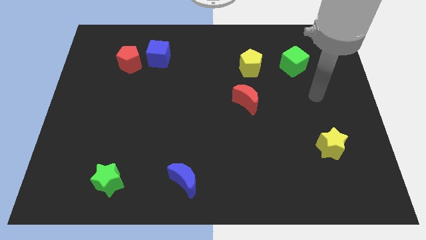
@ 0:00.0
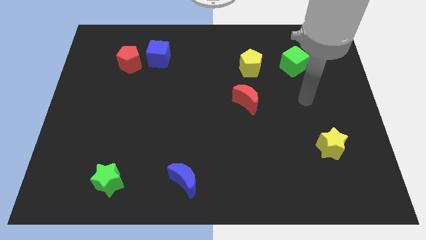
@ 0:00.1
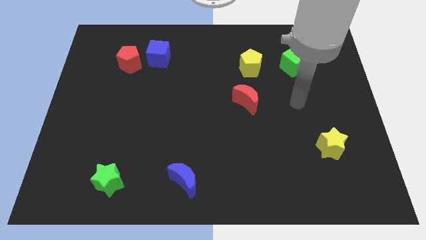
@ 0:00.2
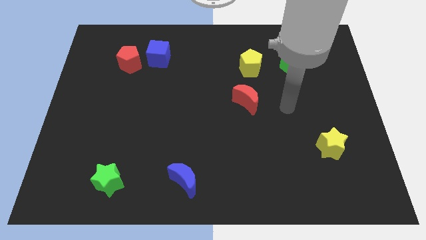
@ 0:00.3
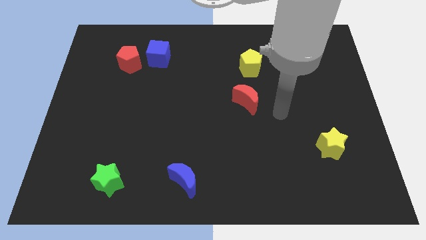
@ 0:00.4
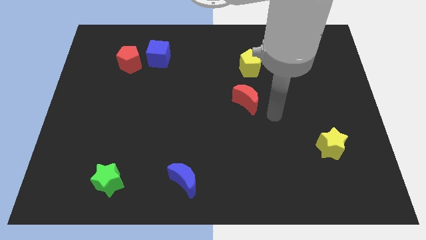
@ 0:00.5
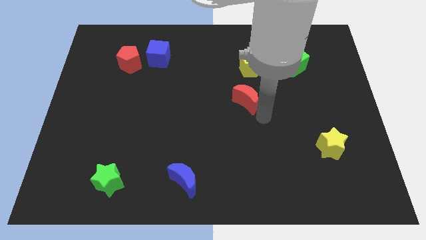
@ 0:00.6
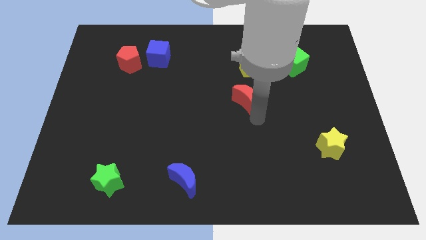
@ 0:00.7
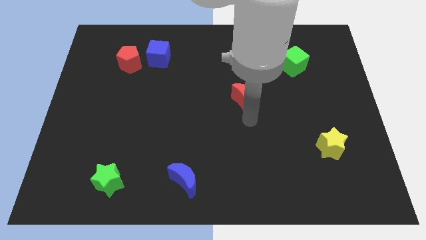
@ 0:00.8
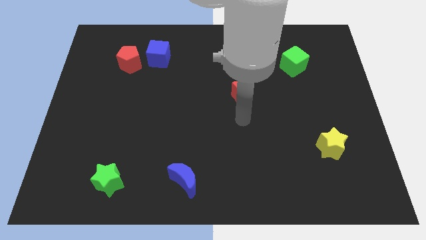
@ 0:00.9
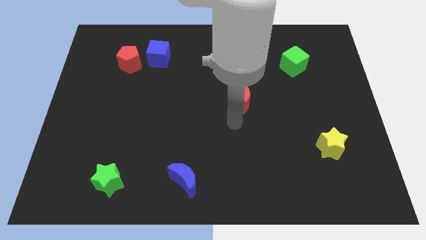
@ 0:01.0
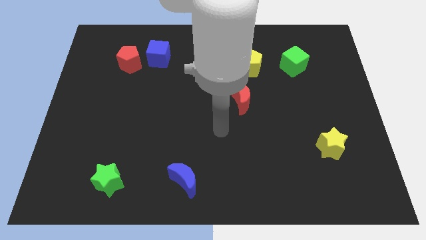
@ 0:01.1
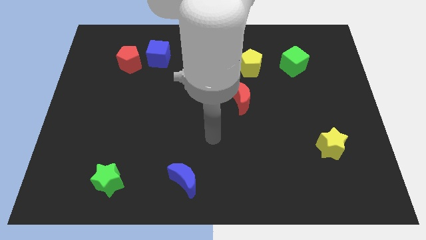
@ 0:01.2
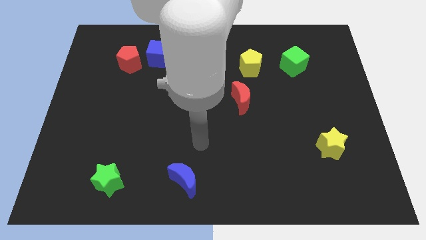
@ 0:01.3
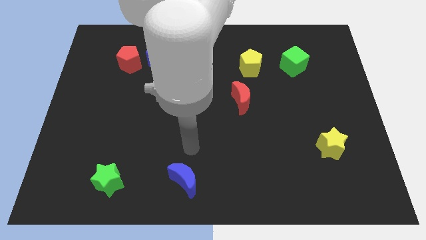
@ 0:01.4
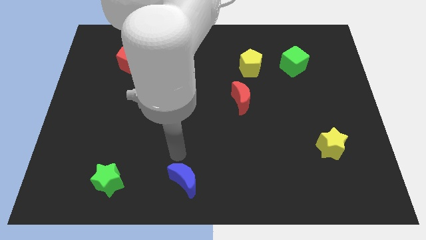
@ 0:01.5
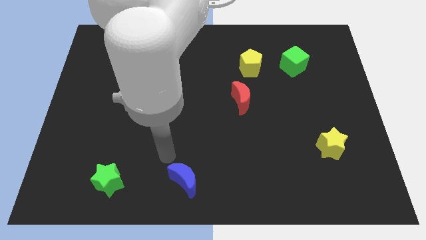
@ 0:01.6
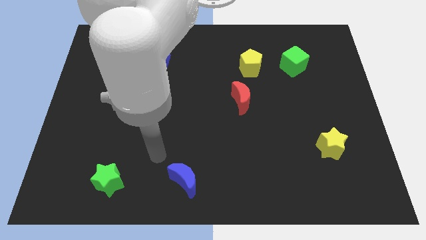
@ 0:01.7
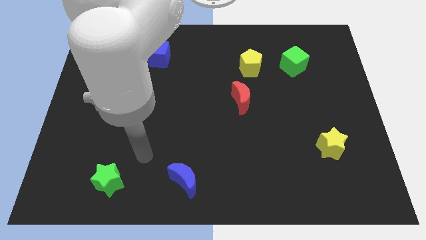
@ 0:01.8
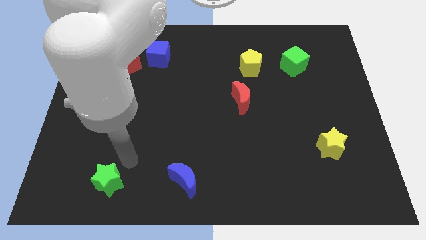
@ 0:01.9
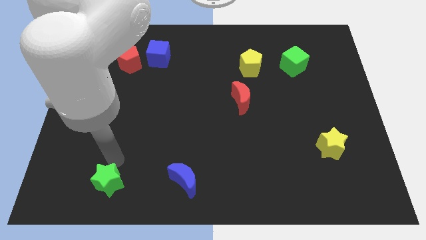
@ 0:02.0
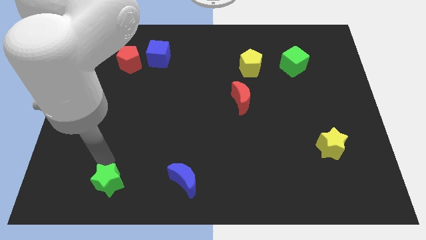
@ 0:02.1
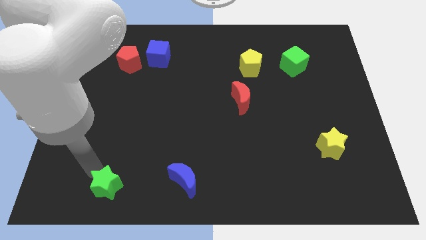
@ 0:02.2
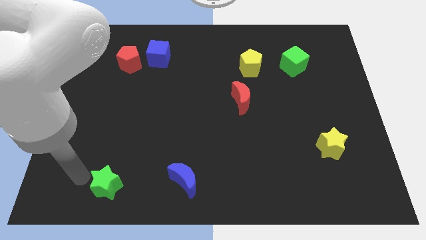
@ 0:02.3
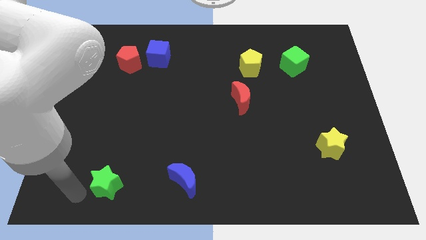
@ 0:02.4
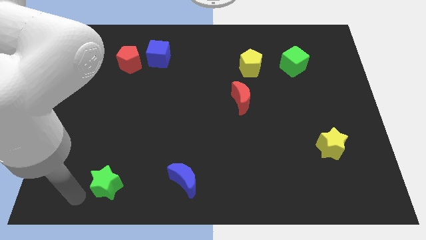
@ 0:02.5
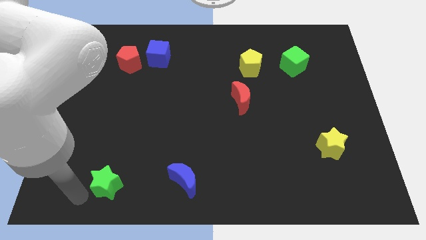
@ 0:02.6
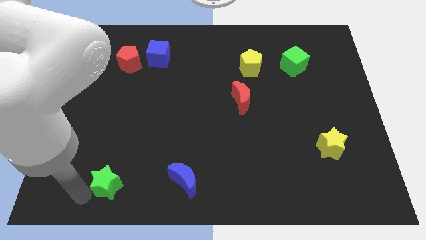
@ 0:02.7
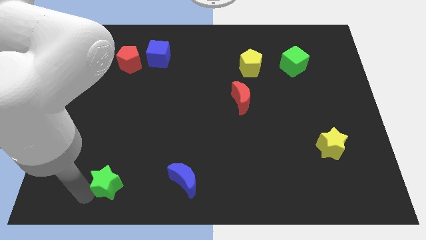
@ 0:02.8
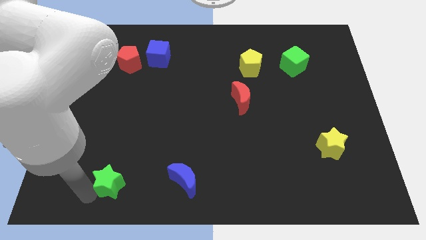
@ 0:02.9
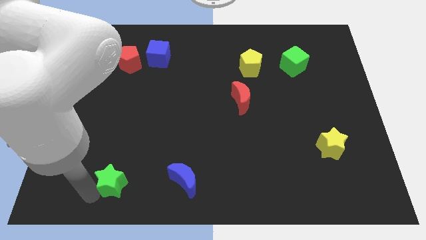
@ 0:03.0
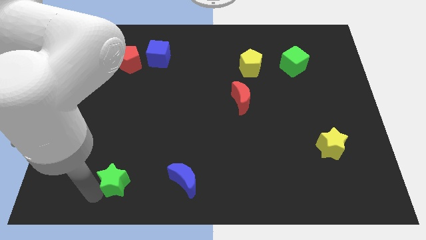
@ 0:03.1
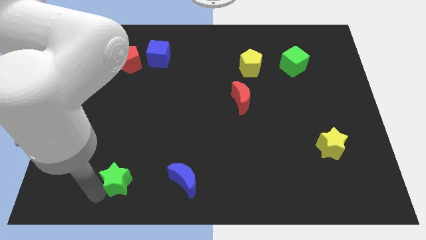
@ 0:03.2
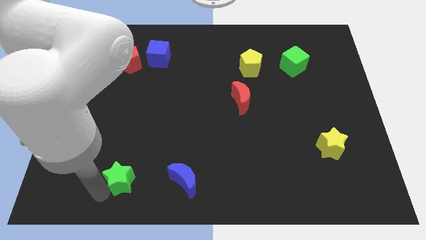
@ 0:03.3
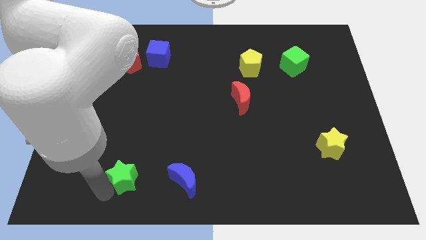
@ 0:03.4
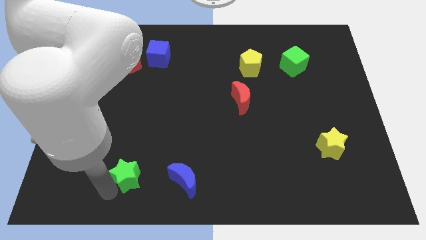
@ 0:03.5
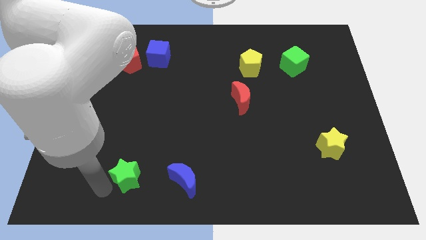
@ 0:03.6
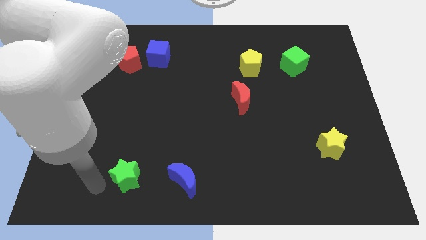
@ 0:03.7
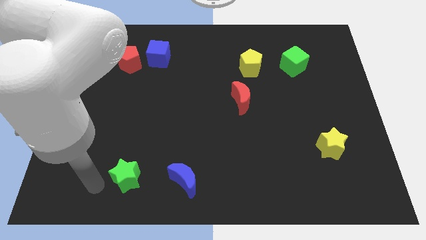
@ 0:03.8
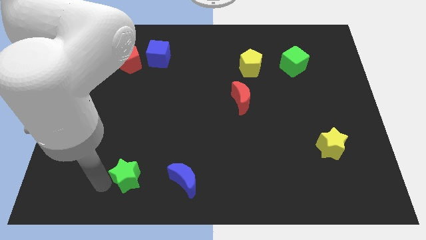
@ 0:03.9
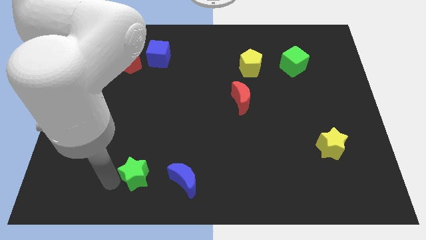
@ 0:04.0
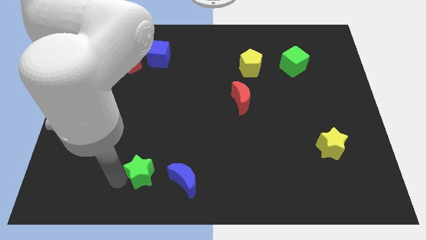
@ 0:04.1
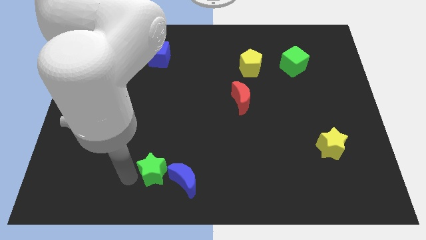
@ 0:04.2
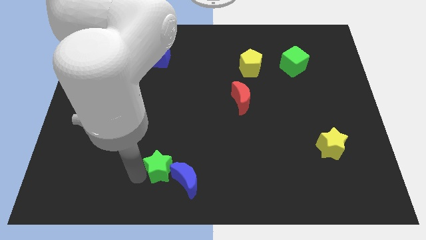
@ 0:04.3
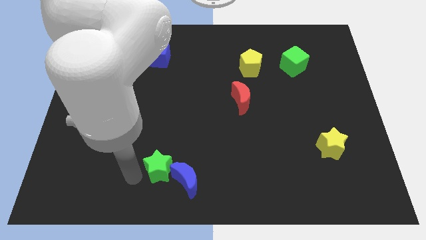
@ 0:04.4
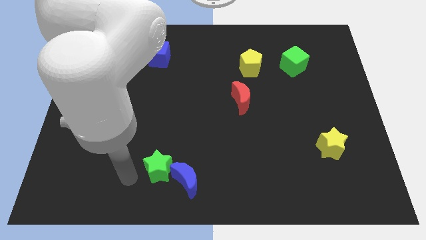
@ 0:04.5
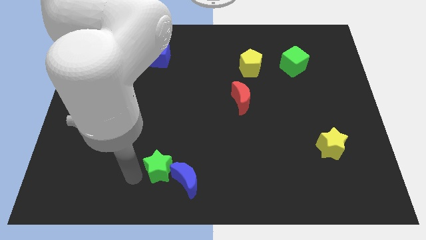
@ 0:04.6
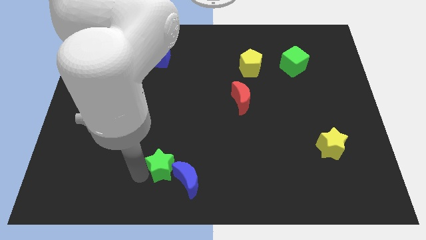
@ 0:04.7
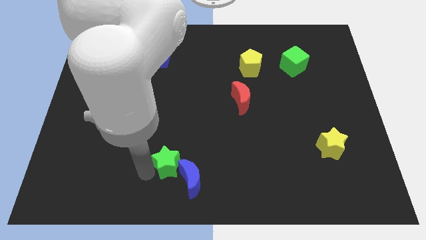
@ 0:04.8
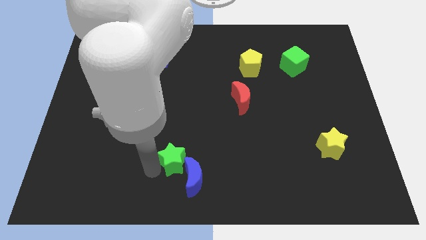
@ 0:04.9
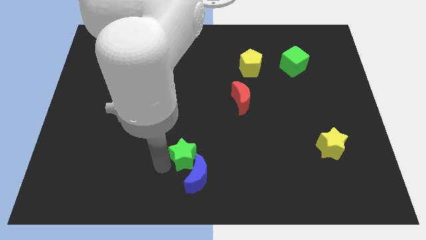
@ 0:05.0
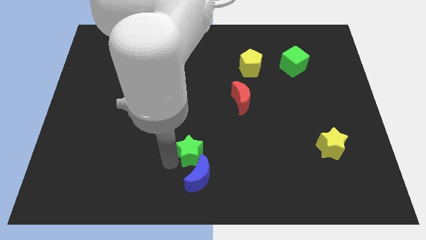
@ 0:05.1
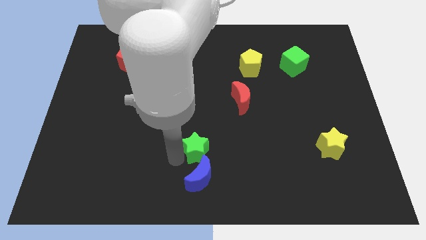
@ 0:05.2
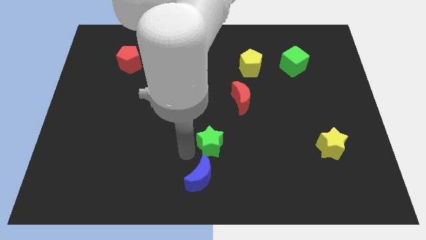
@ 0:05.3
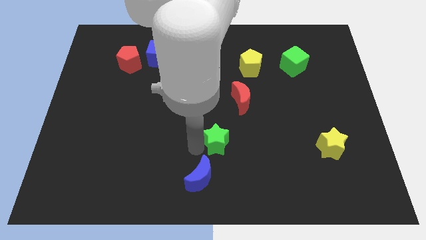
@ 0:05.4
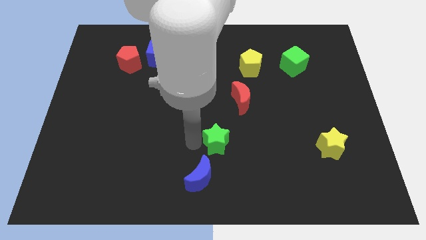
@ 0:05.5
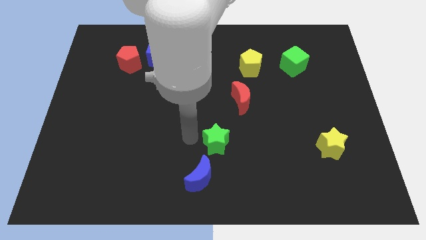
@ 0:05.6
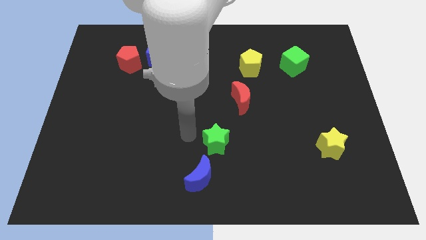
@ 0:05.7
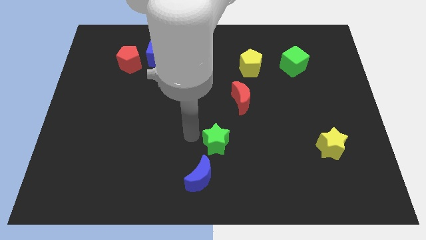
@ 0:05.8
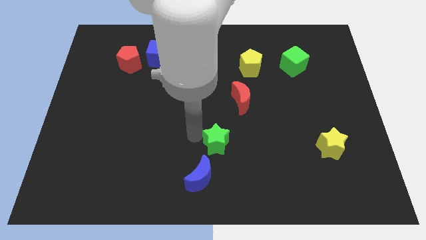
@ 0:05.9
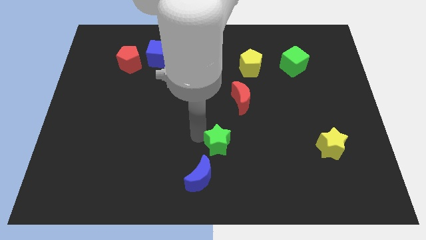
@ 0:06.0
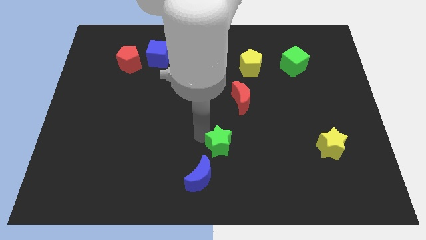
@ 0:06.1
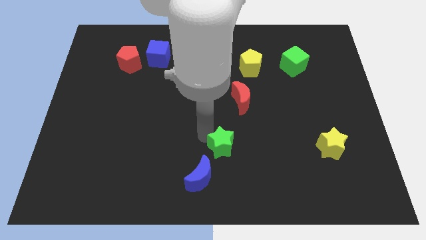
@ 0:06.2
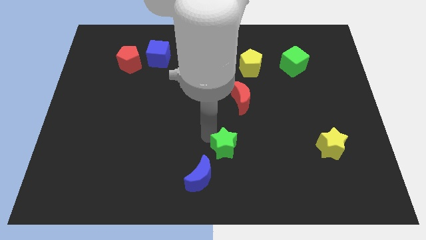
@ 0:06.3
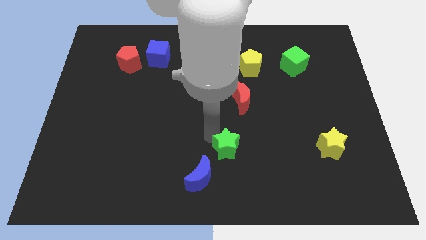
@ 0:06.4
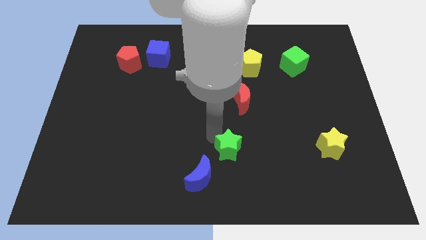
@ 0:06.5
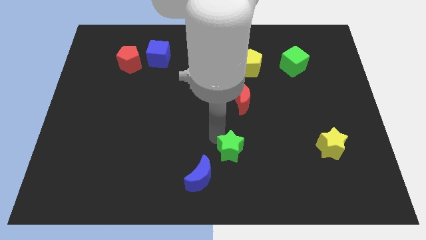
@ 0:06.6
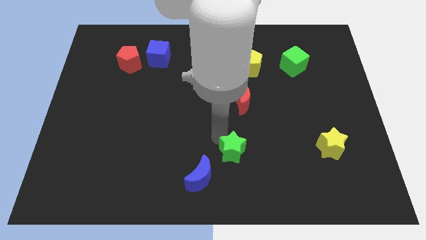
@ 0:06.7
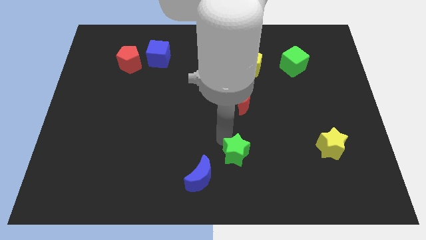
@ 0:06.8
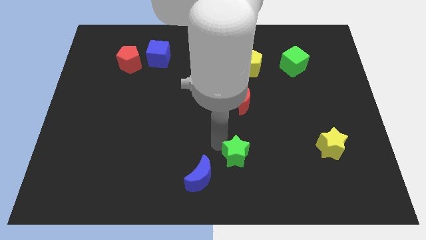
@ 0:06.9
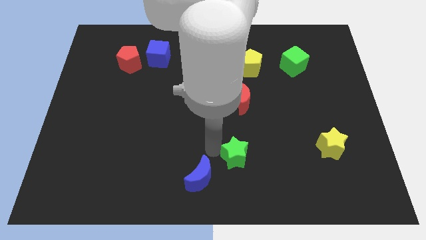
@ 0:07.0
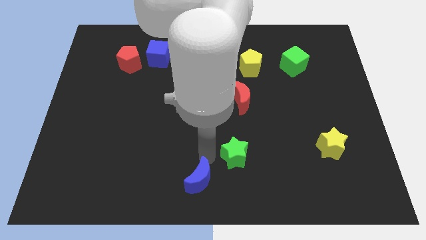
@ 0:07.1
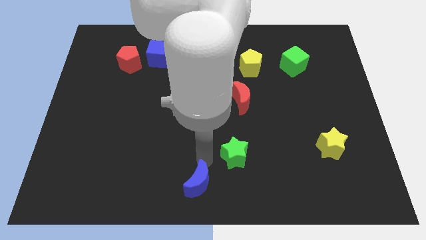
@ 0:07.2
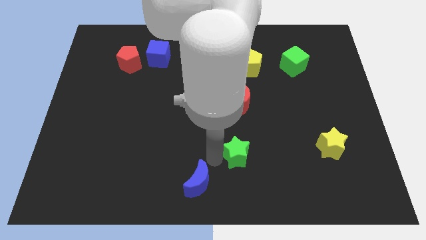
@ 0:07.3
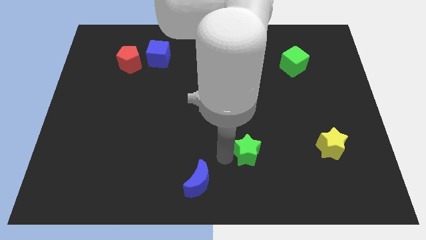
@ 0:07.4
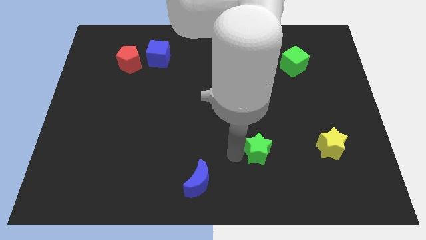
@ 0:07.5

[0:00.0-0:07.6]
push the green star to the left side of the yellow star
